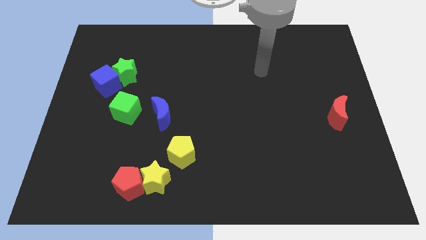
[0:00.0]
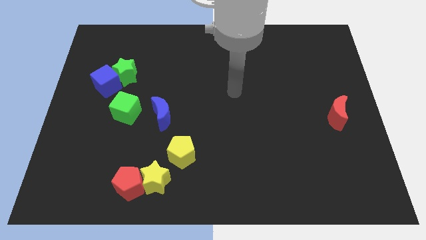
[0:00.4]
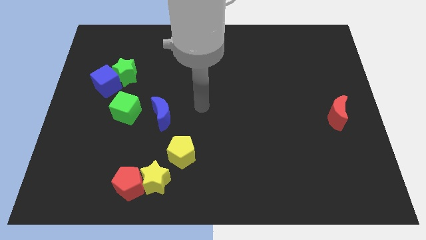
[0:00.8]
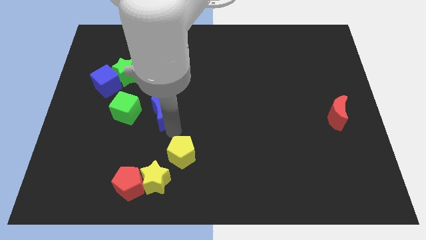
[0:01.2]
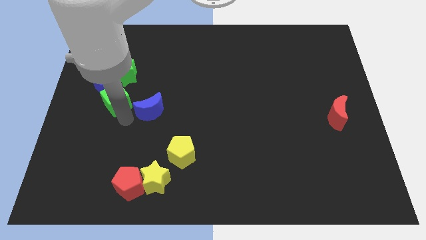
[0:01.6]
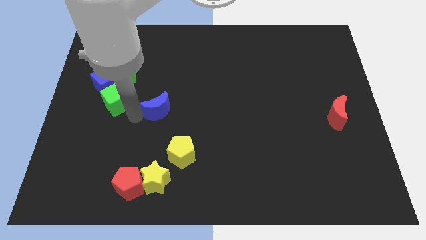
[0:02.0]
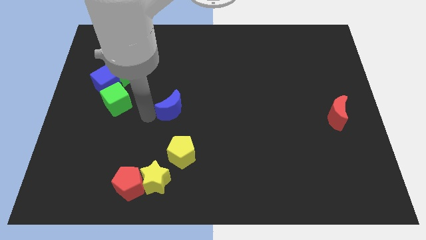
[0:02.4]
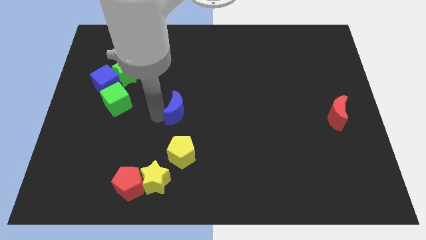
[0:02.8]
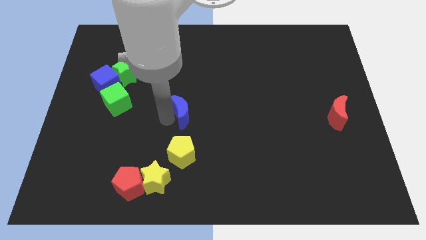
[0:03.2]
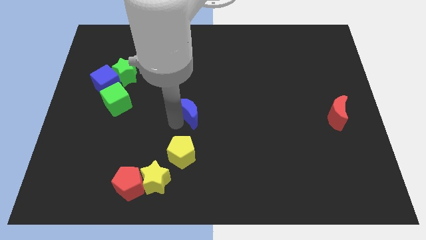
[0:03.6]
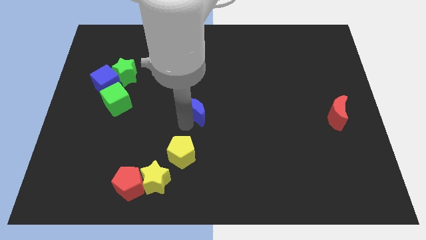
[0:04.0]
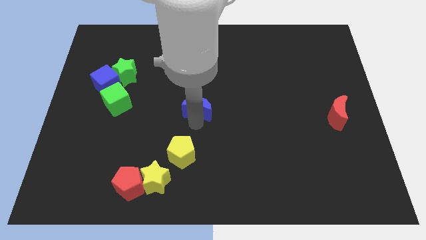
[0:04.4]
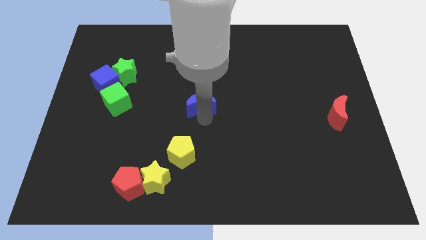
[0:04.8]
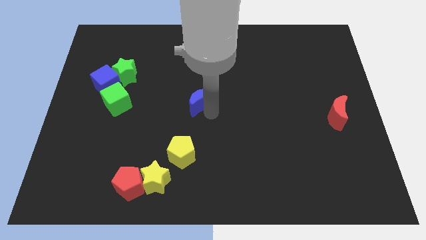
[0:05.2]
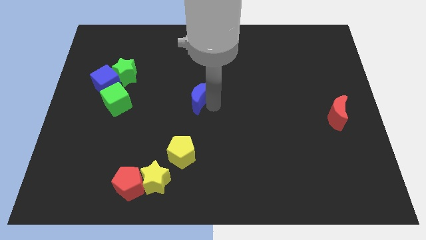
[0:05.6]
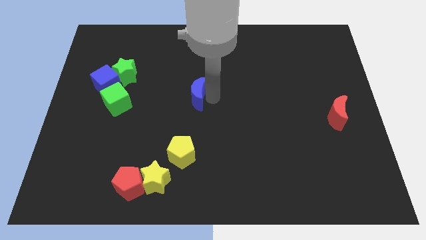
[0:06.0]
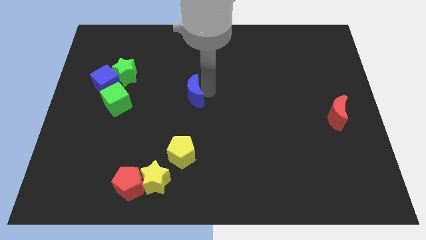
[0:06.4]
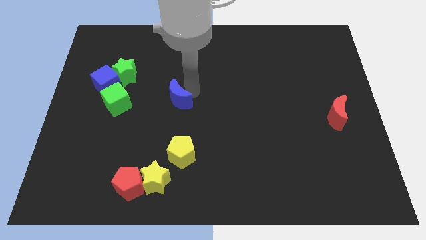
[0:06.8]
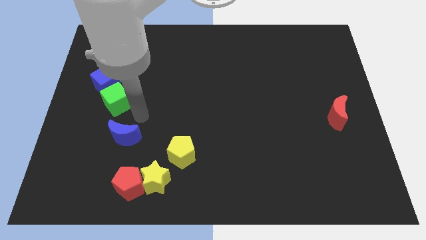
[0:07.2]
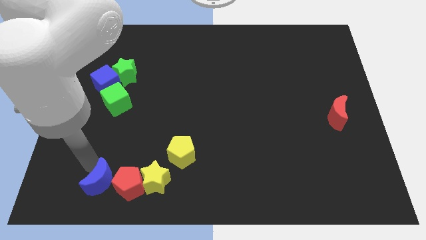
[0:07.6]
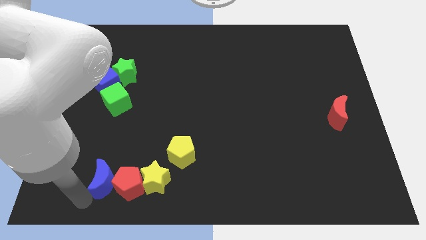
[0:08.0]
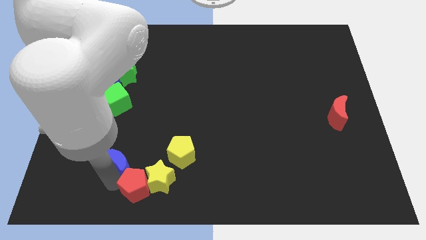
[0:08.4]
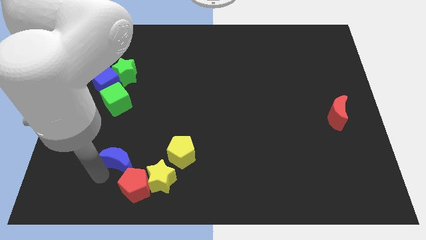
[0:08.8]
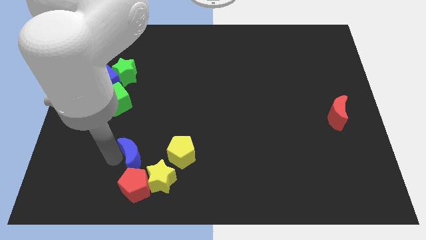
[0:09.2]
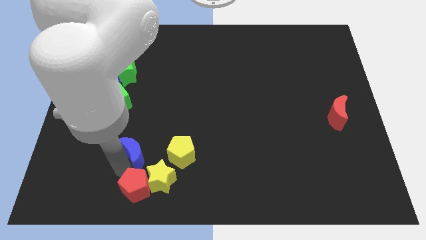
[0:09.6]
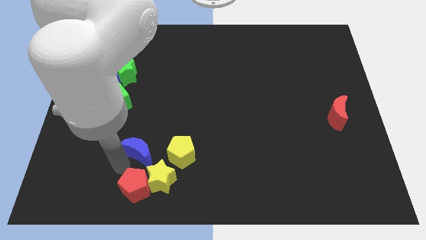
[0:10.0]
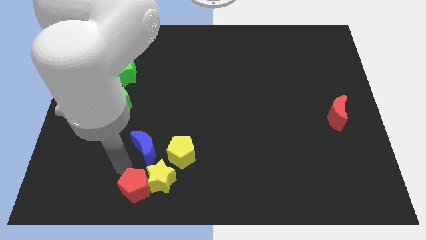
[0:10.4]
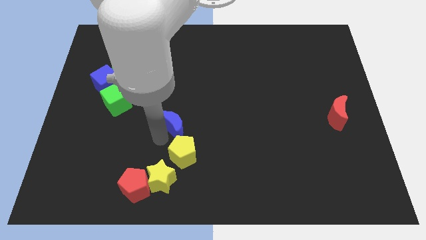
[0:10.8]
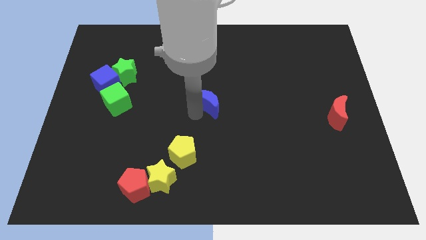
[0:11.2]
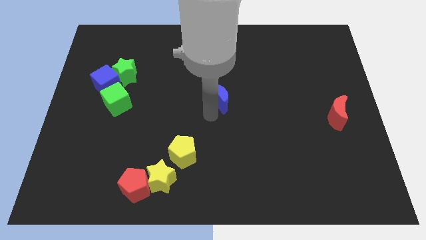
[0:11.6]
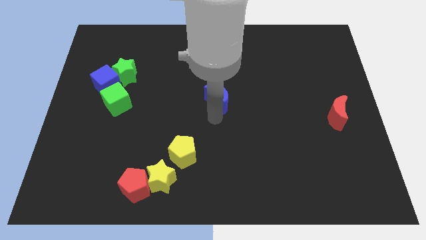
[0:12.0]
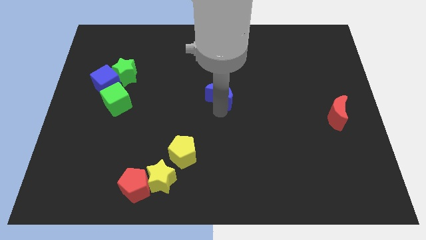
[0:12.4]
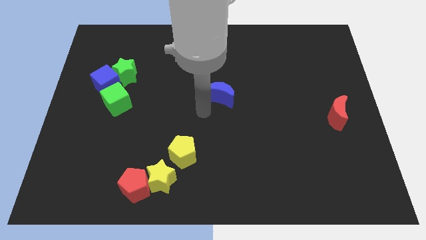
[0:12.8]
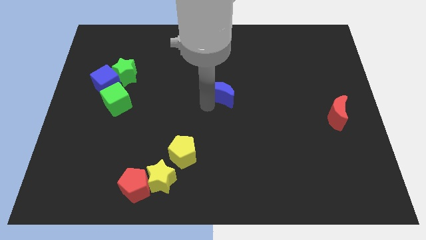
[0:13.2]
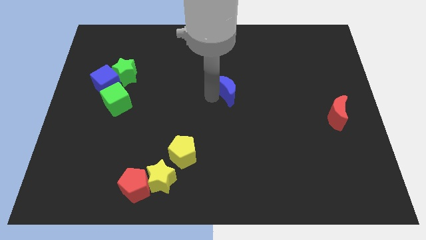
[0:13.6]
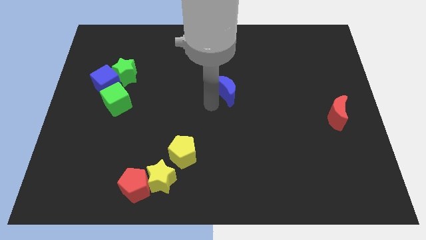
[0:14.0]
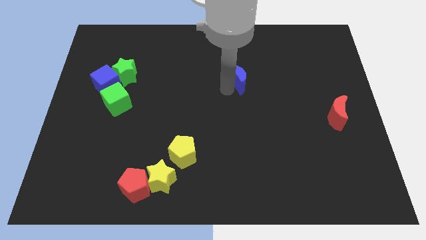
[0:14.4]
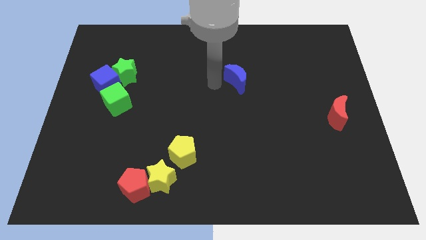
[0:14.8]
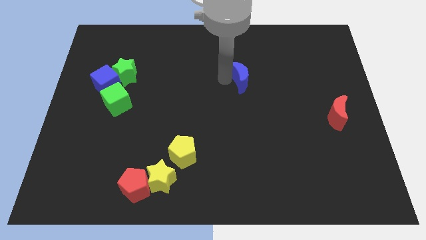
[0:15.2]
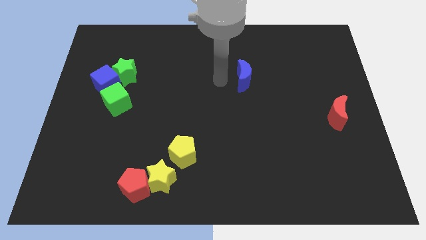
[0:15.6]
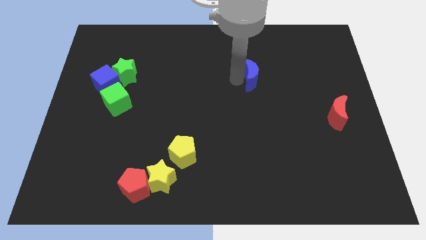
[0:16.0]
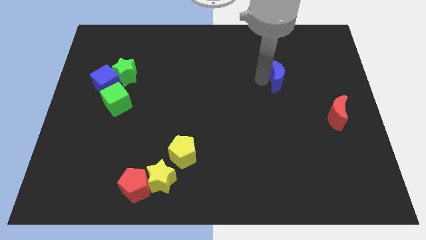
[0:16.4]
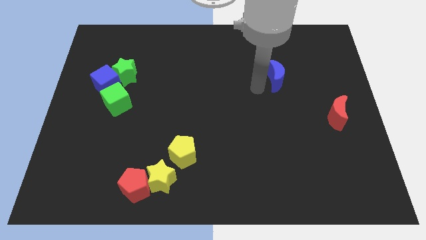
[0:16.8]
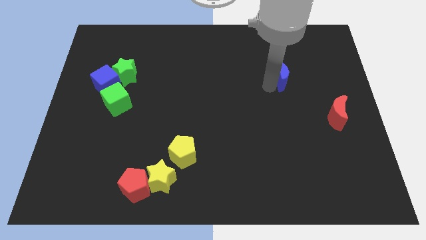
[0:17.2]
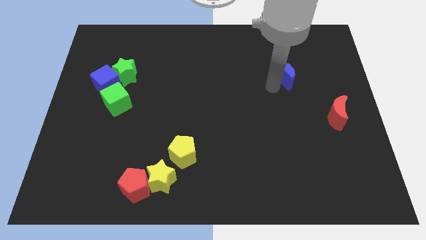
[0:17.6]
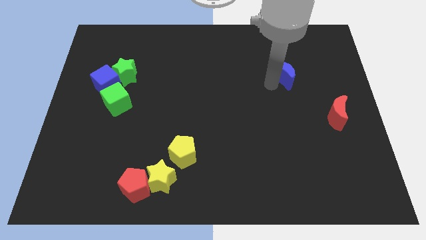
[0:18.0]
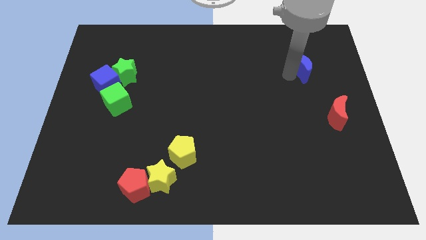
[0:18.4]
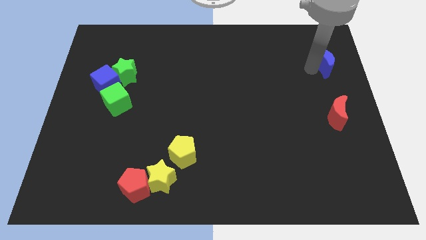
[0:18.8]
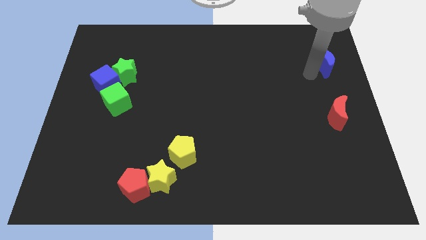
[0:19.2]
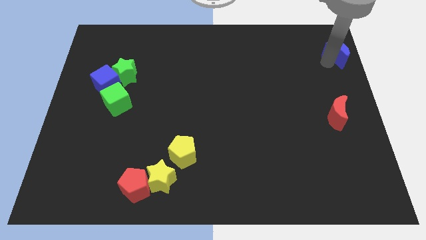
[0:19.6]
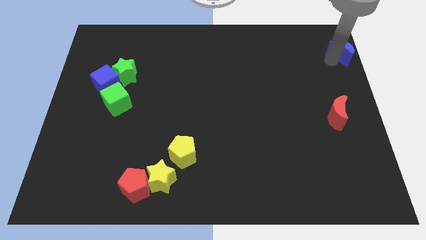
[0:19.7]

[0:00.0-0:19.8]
slide the blue moon to the top right

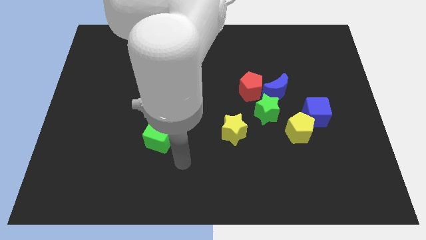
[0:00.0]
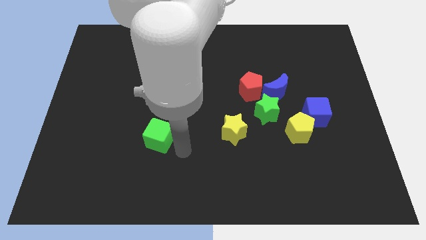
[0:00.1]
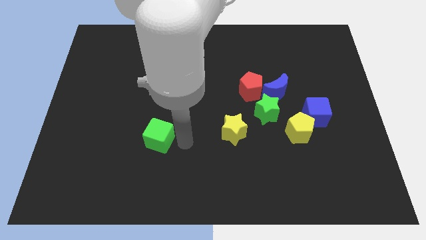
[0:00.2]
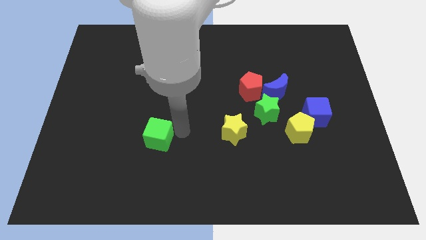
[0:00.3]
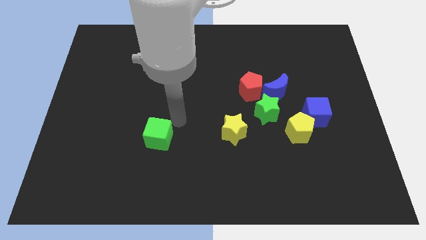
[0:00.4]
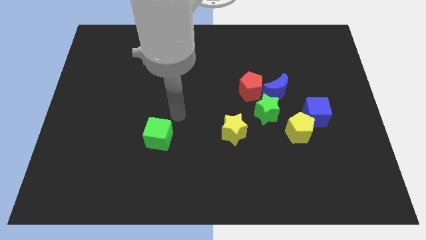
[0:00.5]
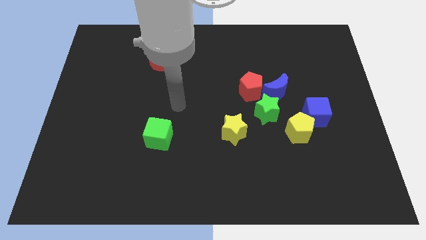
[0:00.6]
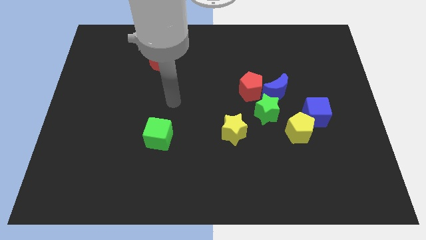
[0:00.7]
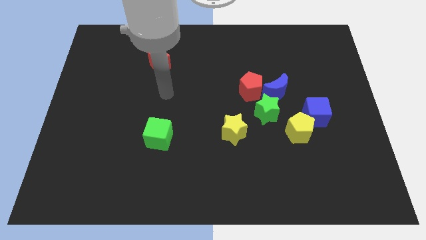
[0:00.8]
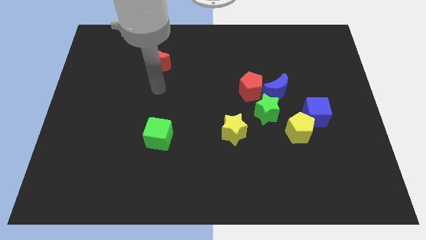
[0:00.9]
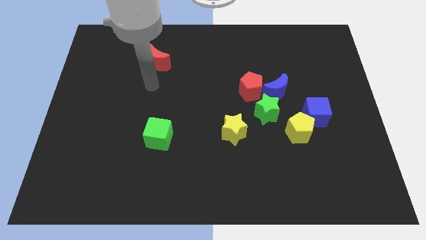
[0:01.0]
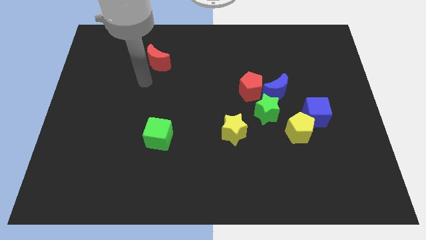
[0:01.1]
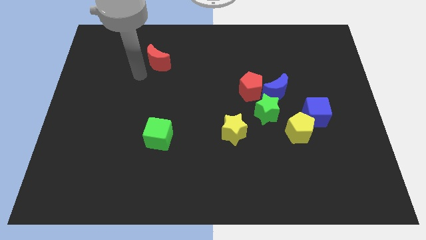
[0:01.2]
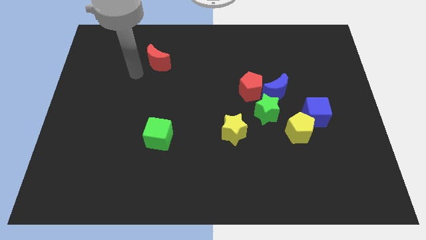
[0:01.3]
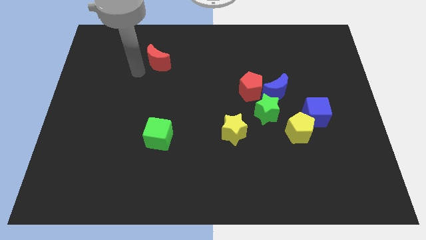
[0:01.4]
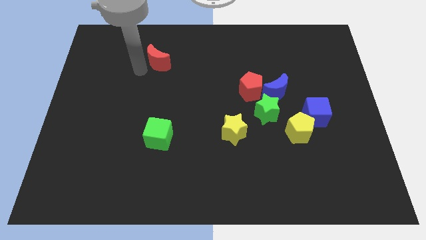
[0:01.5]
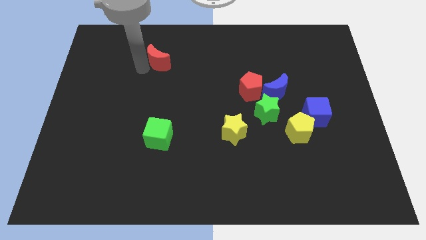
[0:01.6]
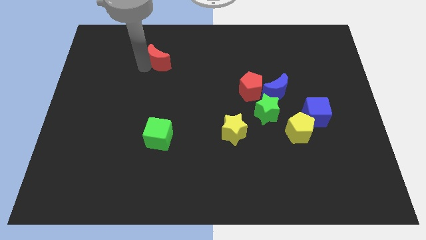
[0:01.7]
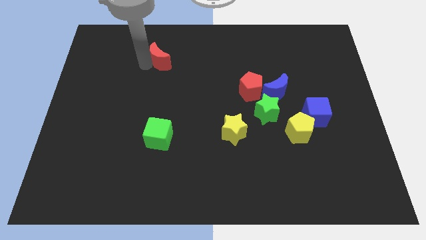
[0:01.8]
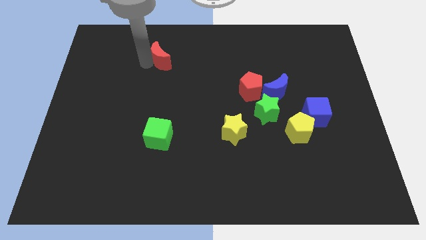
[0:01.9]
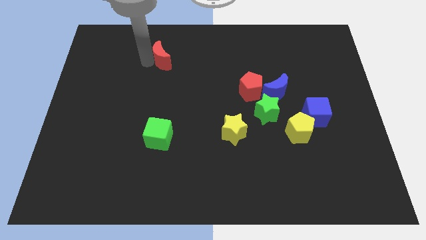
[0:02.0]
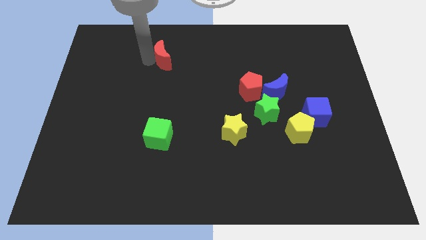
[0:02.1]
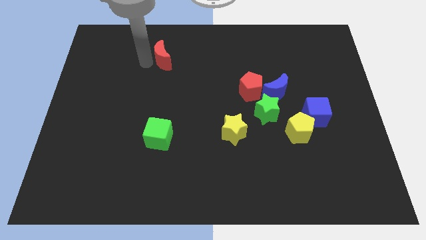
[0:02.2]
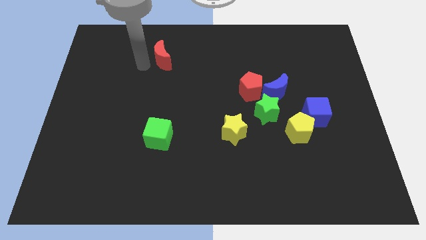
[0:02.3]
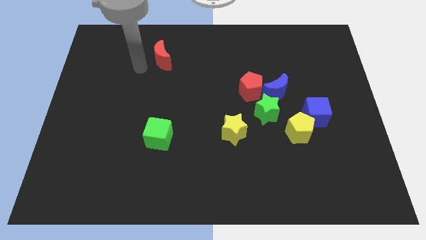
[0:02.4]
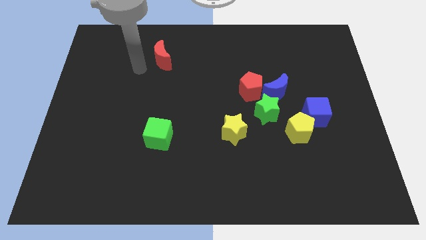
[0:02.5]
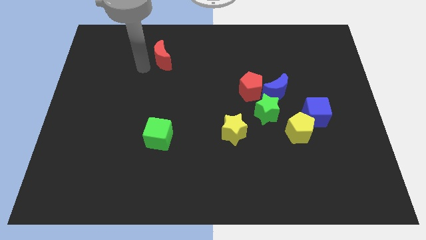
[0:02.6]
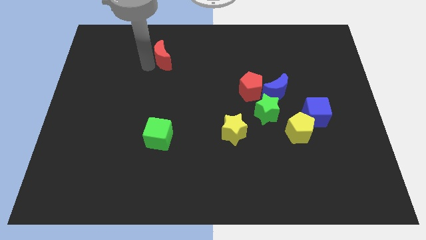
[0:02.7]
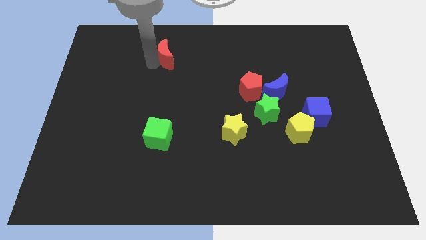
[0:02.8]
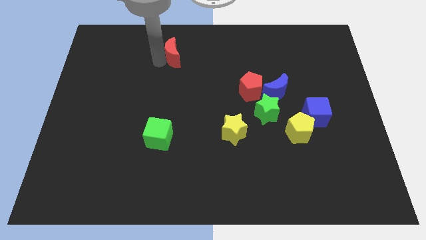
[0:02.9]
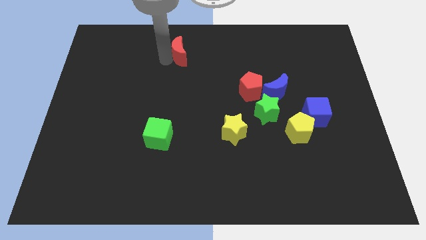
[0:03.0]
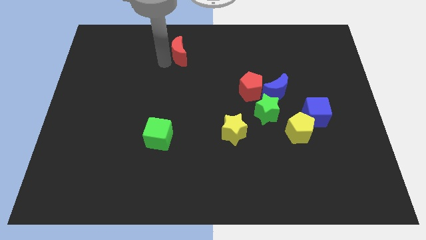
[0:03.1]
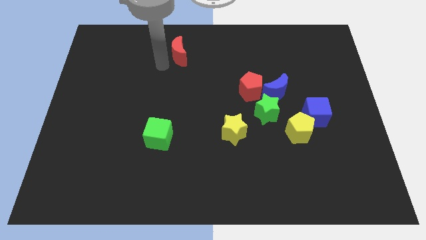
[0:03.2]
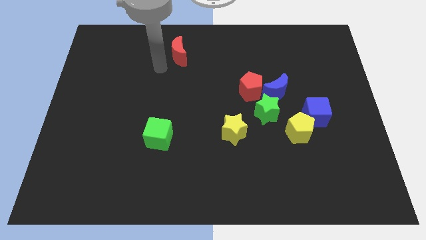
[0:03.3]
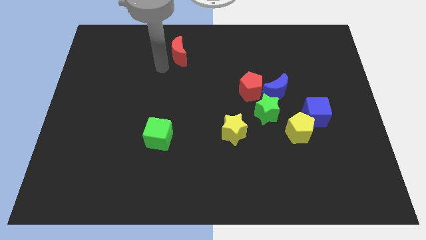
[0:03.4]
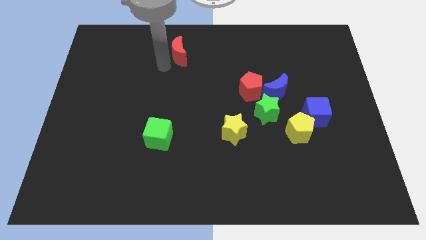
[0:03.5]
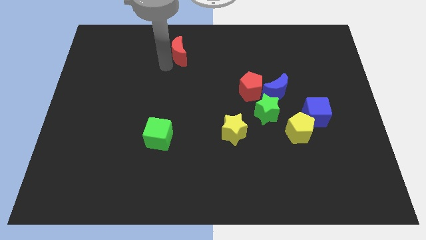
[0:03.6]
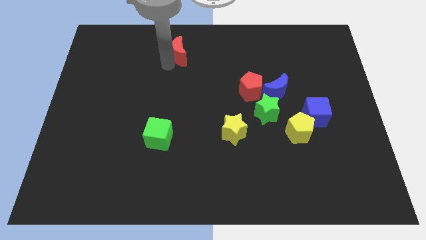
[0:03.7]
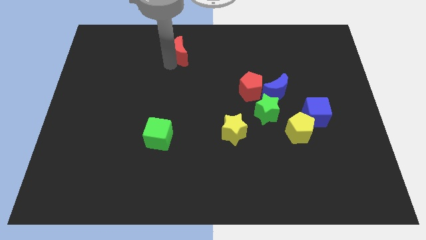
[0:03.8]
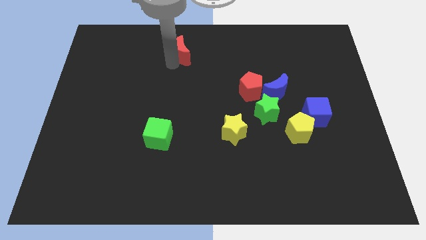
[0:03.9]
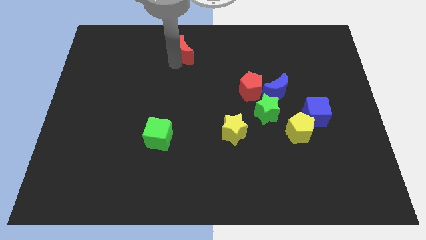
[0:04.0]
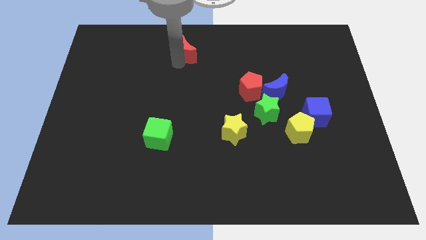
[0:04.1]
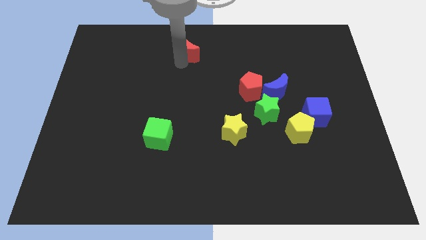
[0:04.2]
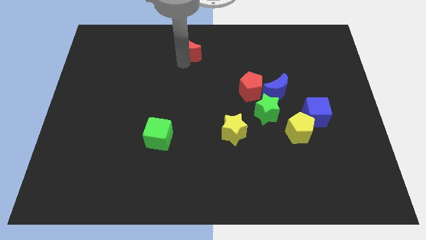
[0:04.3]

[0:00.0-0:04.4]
put the red moon to the top side
